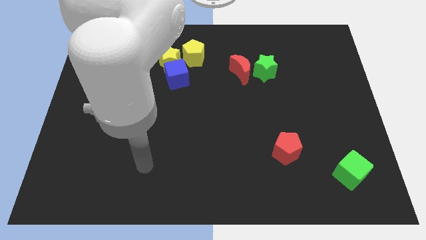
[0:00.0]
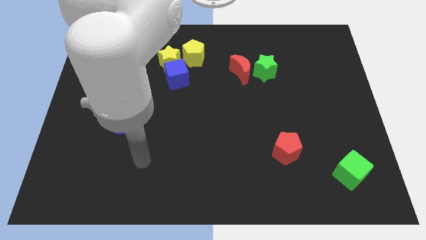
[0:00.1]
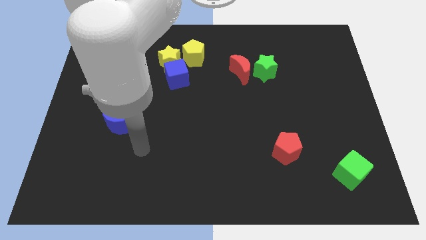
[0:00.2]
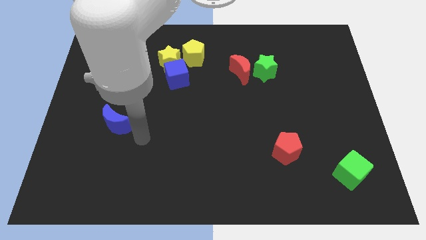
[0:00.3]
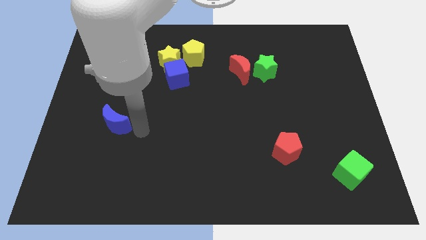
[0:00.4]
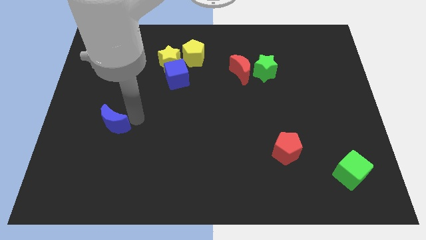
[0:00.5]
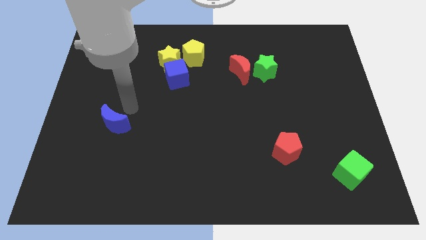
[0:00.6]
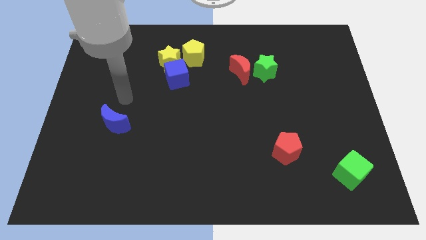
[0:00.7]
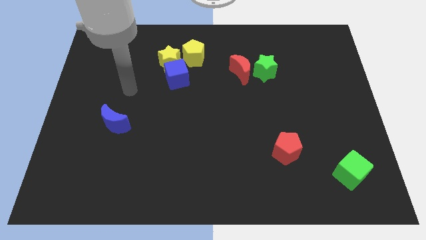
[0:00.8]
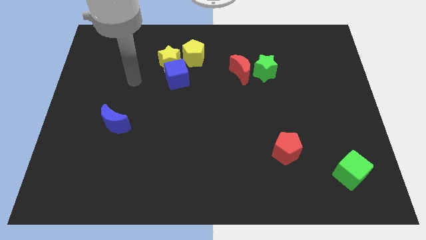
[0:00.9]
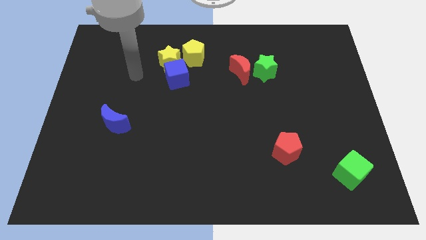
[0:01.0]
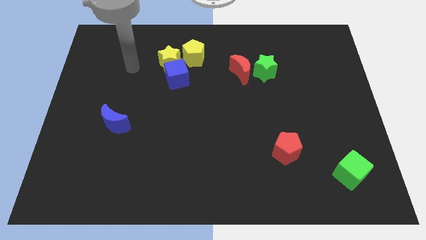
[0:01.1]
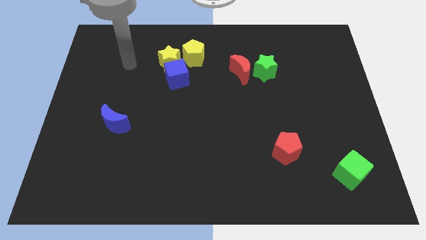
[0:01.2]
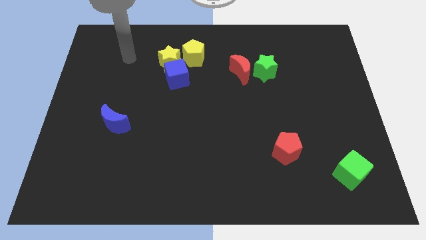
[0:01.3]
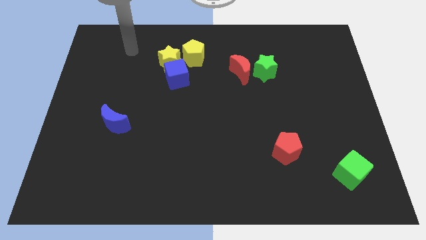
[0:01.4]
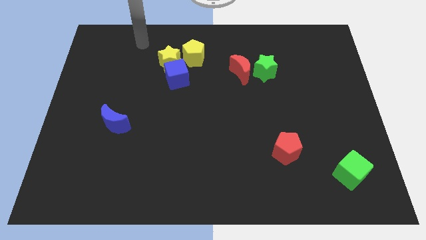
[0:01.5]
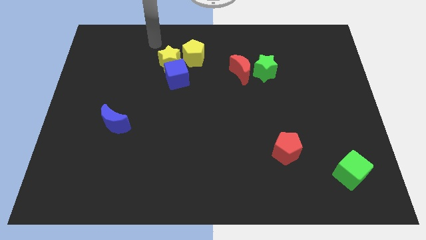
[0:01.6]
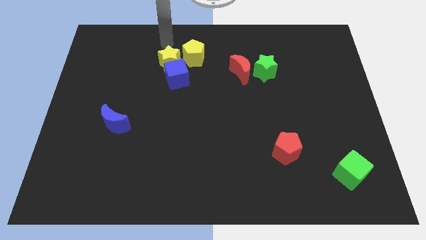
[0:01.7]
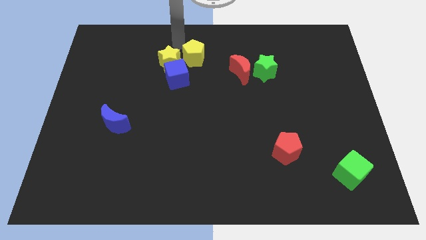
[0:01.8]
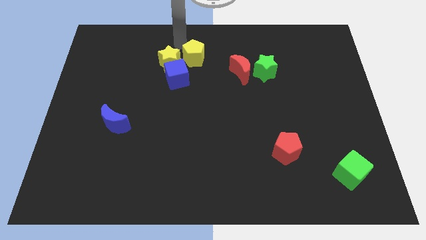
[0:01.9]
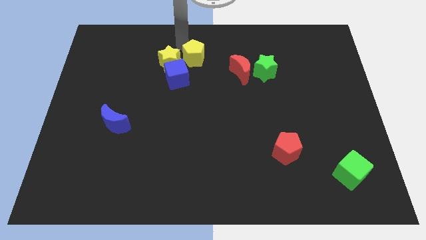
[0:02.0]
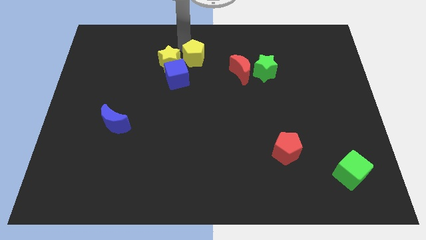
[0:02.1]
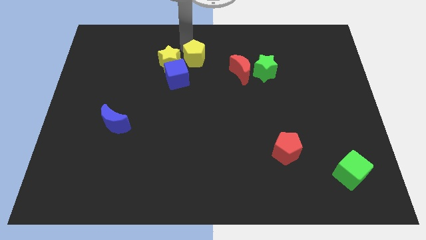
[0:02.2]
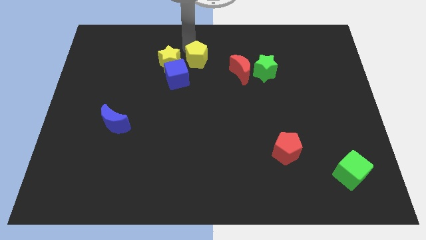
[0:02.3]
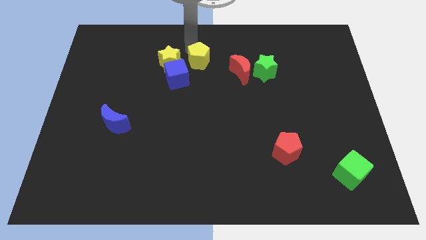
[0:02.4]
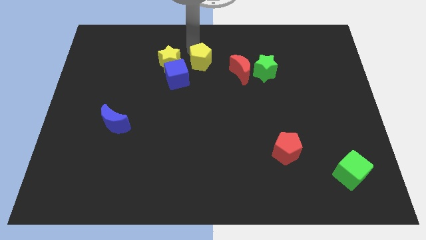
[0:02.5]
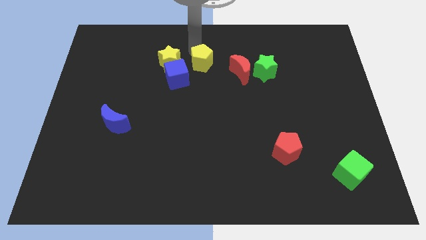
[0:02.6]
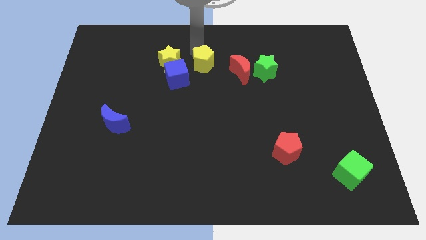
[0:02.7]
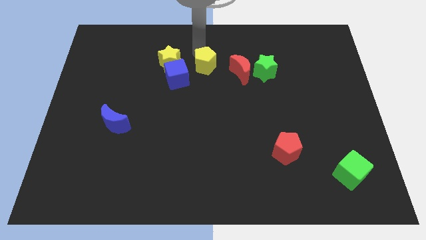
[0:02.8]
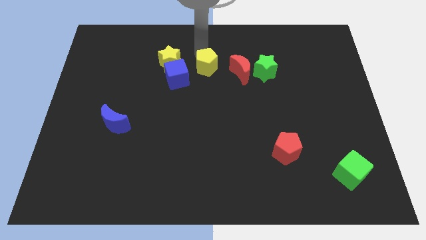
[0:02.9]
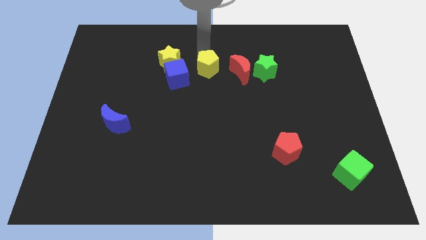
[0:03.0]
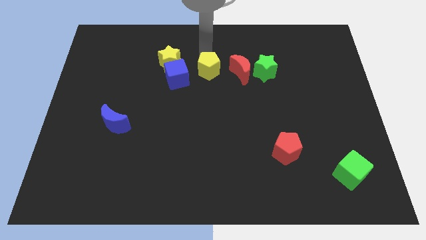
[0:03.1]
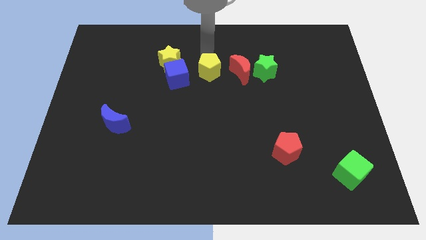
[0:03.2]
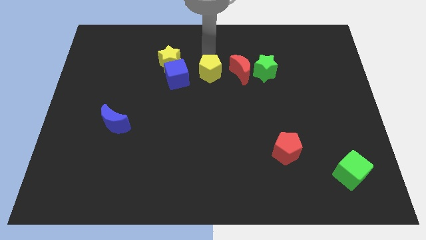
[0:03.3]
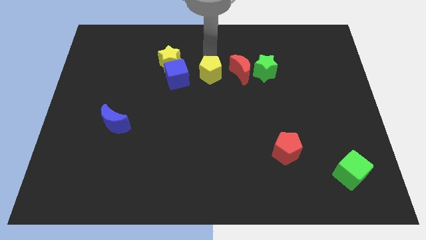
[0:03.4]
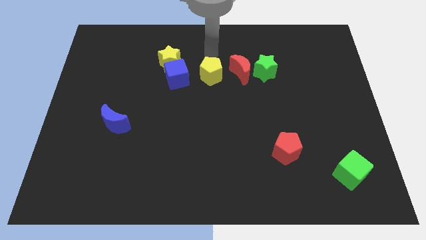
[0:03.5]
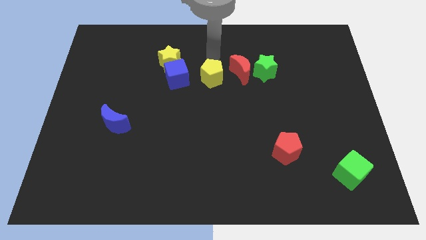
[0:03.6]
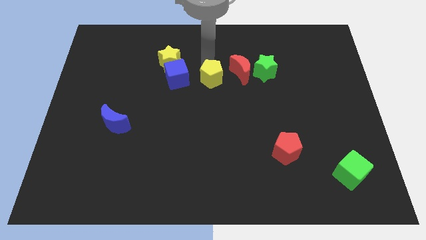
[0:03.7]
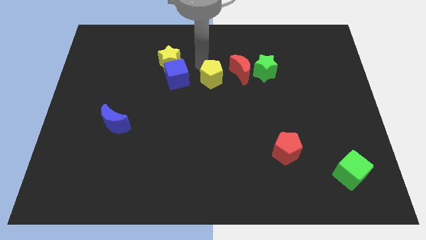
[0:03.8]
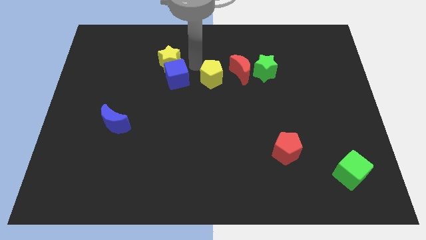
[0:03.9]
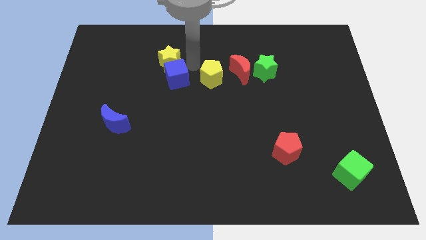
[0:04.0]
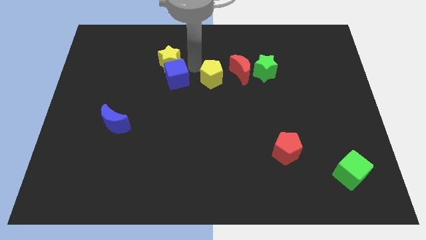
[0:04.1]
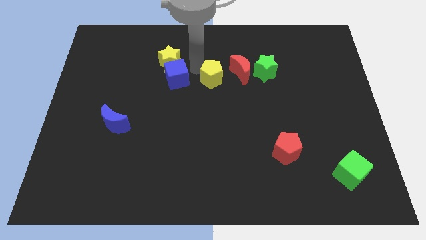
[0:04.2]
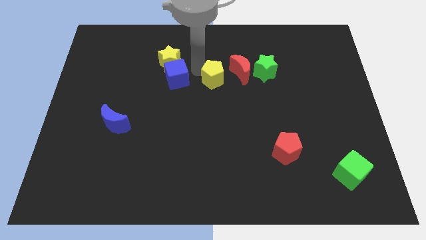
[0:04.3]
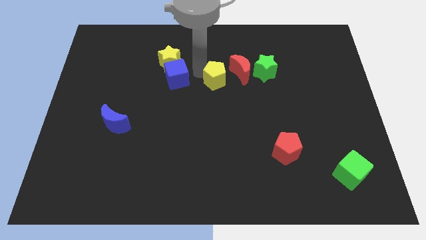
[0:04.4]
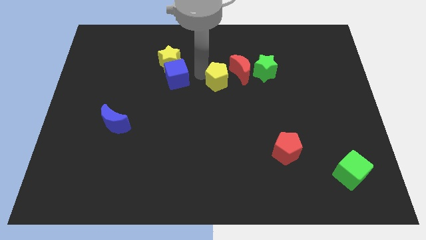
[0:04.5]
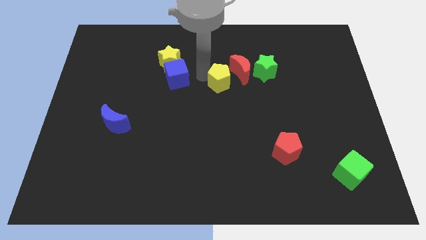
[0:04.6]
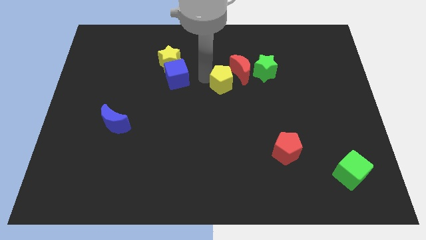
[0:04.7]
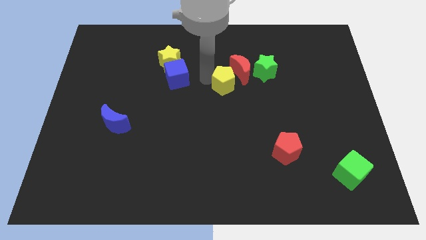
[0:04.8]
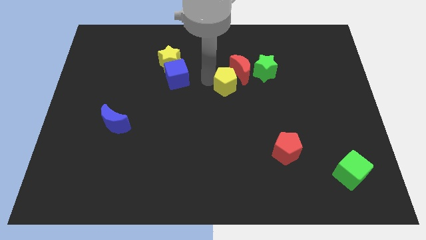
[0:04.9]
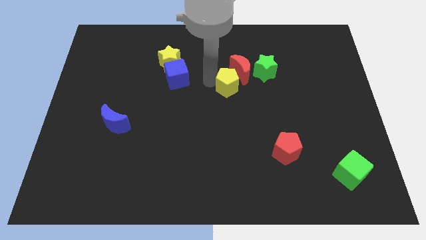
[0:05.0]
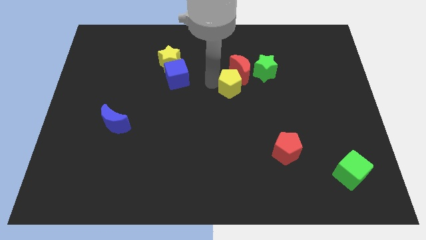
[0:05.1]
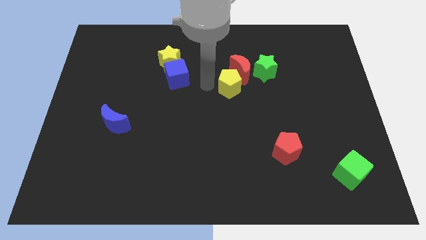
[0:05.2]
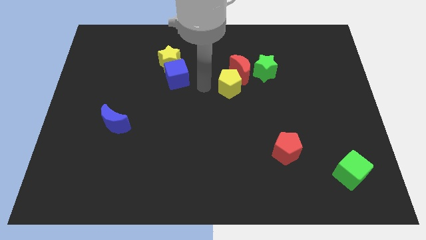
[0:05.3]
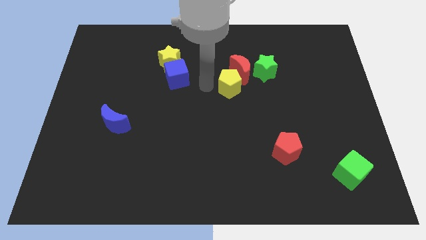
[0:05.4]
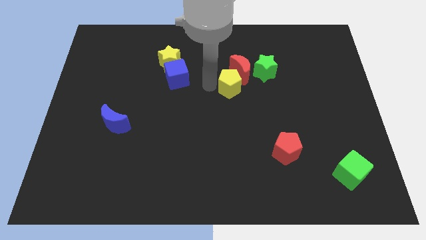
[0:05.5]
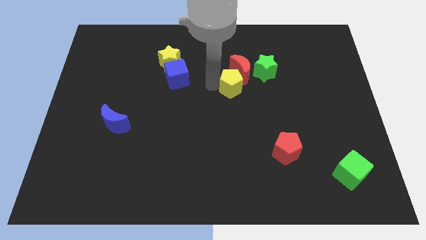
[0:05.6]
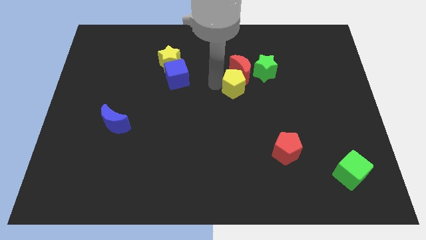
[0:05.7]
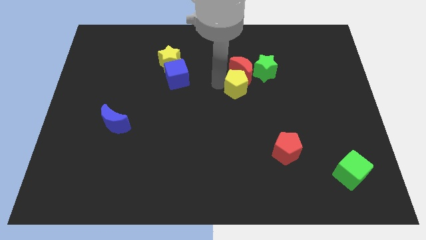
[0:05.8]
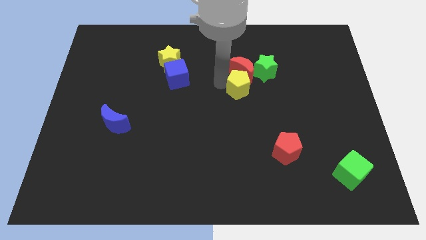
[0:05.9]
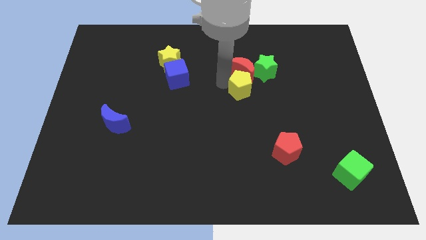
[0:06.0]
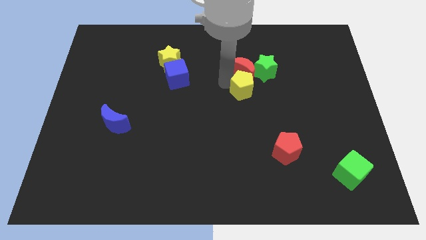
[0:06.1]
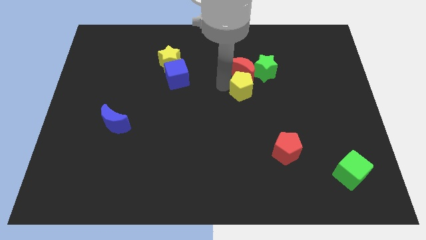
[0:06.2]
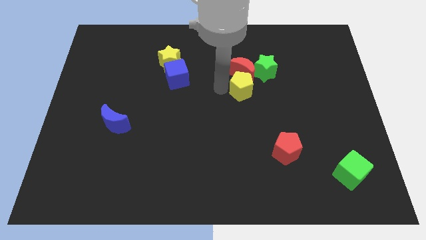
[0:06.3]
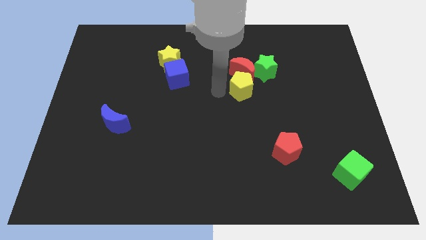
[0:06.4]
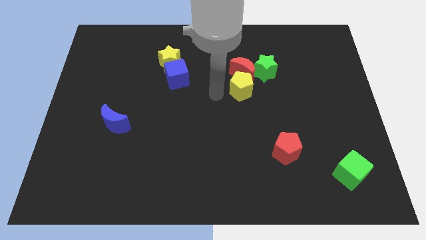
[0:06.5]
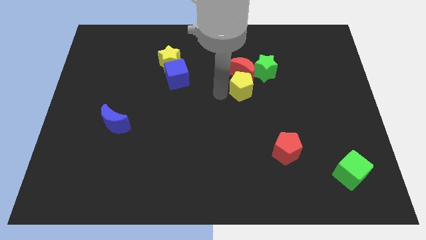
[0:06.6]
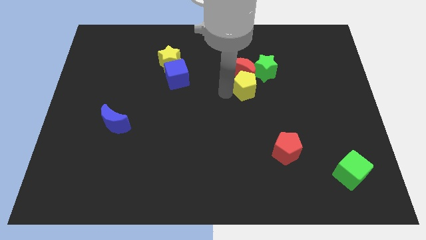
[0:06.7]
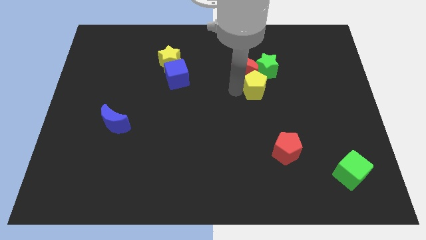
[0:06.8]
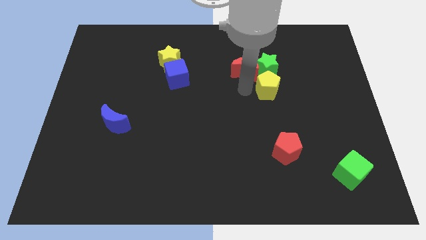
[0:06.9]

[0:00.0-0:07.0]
put the yellow pentagon to the bottom right side of the green star
